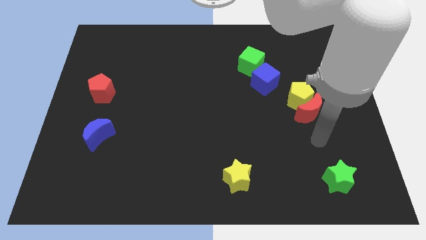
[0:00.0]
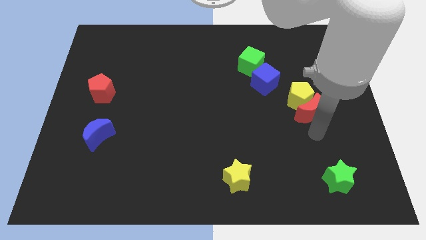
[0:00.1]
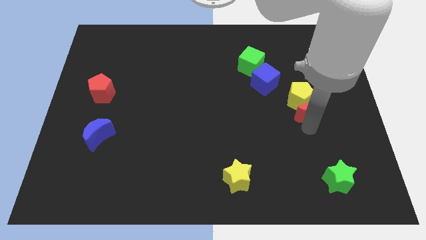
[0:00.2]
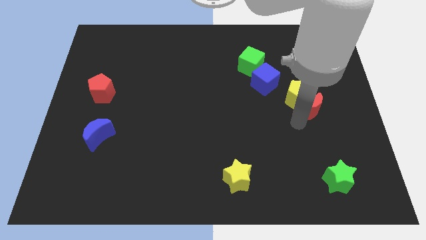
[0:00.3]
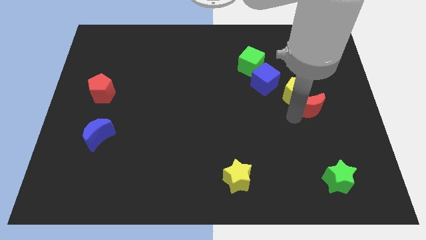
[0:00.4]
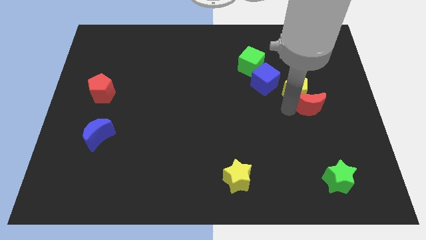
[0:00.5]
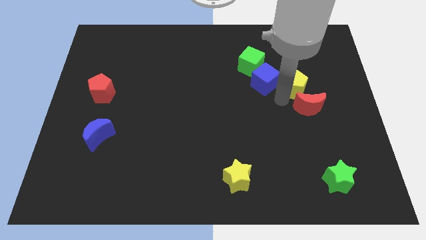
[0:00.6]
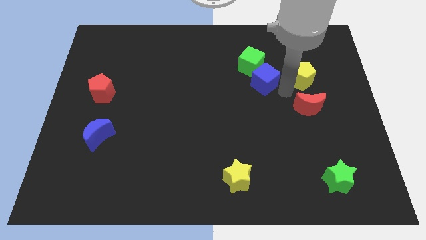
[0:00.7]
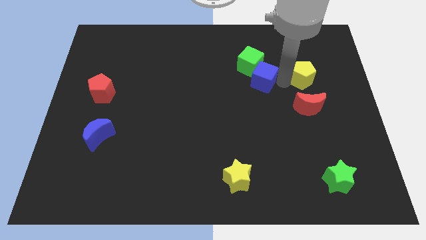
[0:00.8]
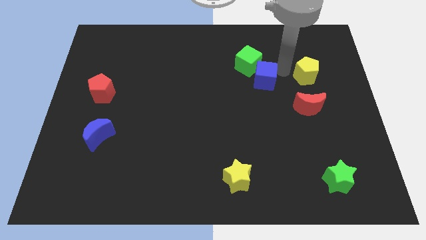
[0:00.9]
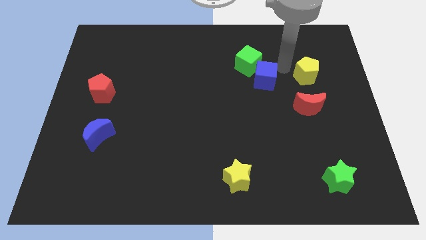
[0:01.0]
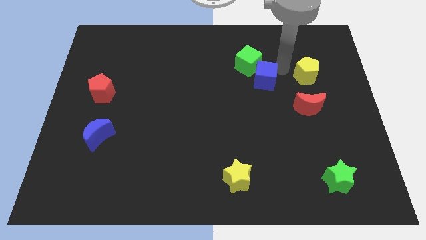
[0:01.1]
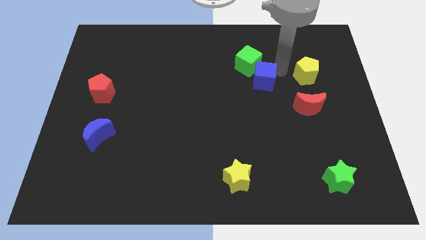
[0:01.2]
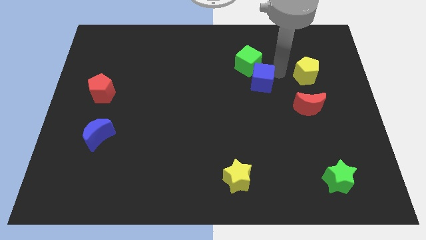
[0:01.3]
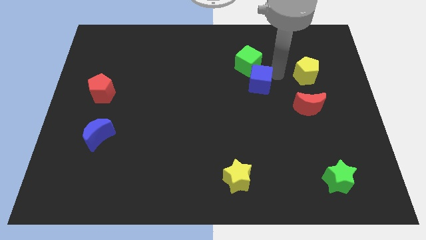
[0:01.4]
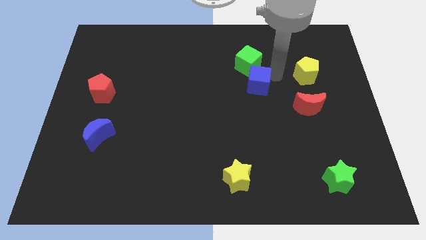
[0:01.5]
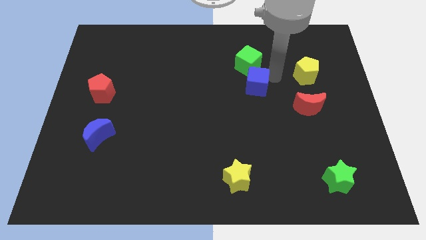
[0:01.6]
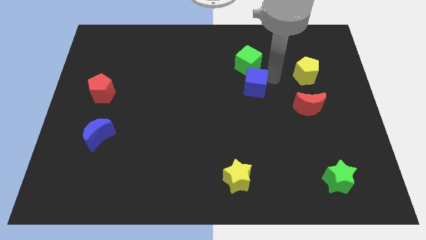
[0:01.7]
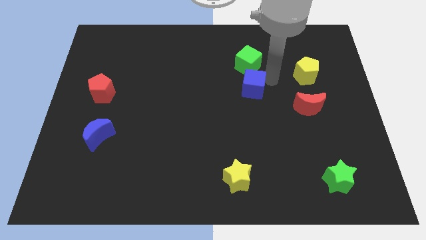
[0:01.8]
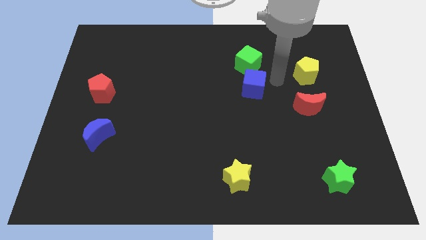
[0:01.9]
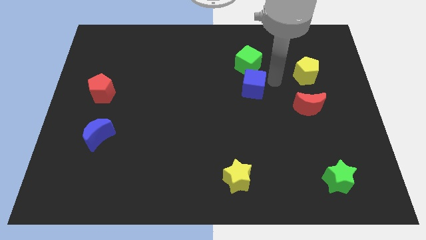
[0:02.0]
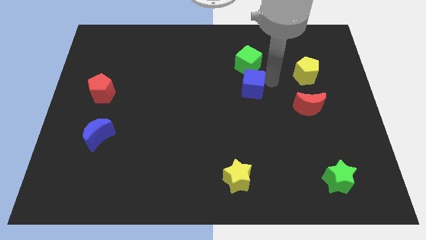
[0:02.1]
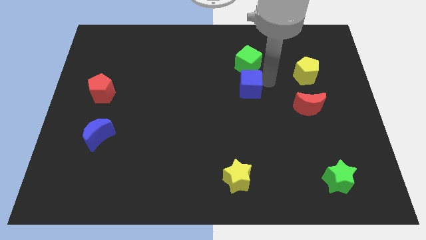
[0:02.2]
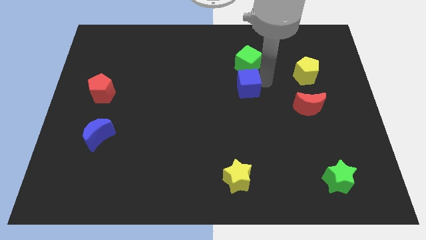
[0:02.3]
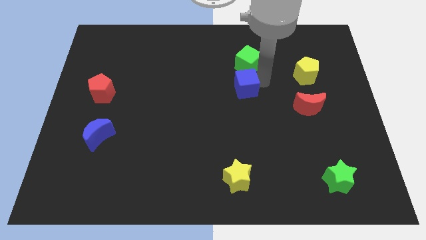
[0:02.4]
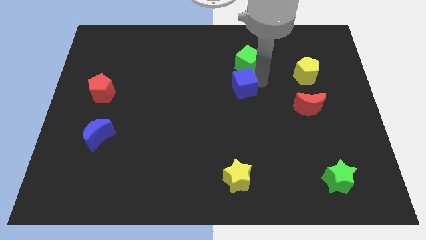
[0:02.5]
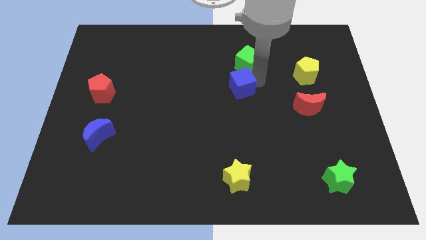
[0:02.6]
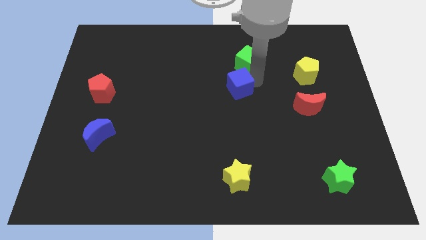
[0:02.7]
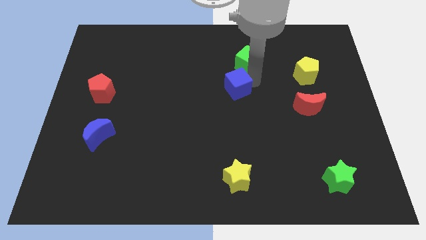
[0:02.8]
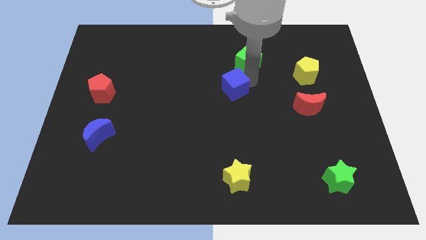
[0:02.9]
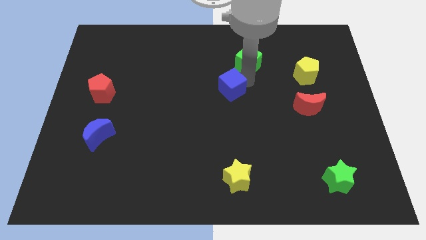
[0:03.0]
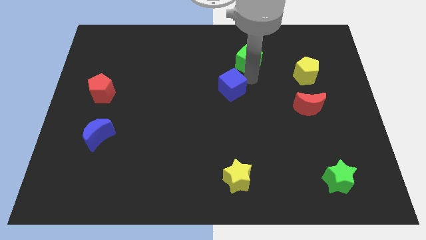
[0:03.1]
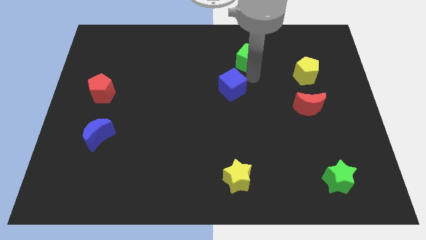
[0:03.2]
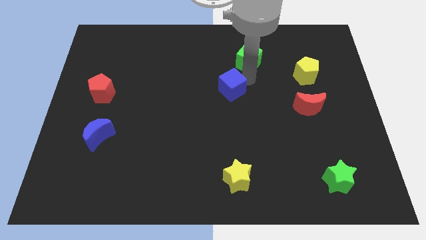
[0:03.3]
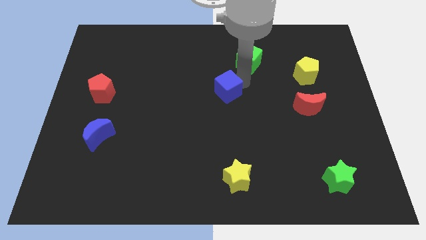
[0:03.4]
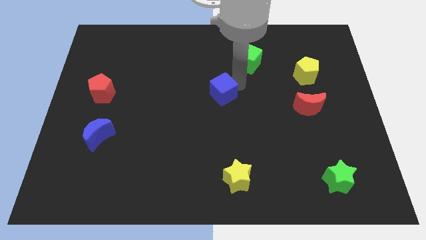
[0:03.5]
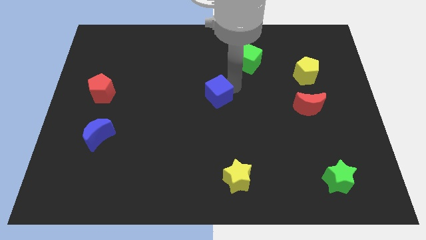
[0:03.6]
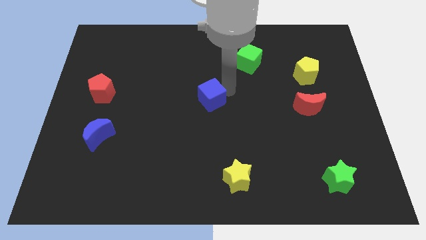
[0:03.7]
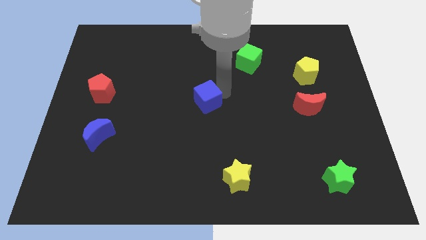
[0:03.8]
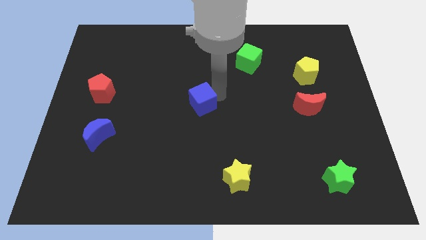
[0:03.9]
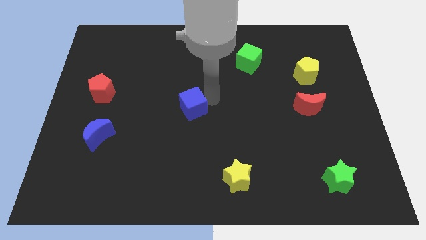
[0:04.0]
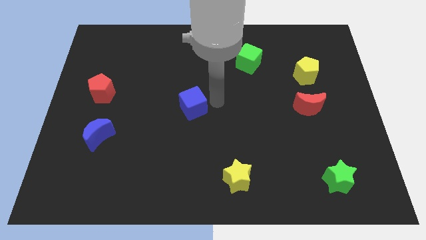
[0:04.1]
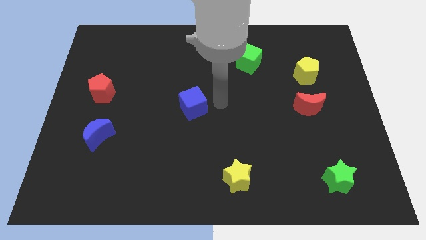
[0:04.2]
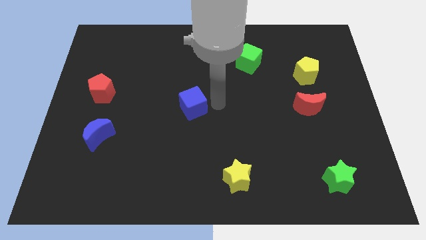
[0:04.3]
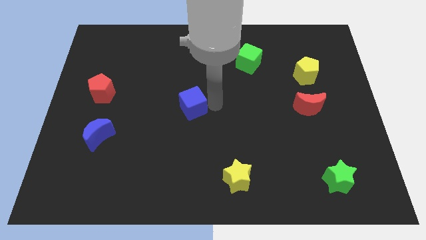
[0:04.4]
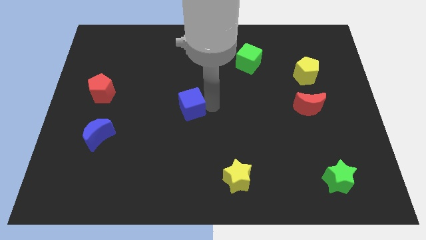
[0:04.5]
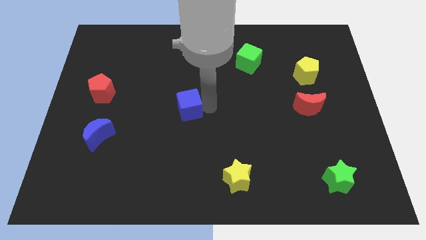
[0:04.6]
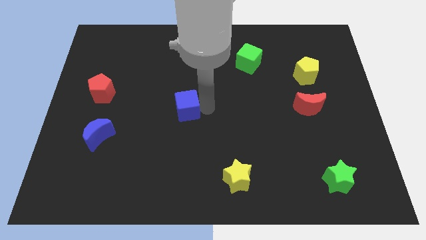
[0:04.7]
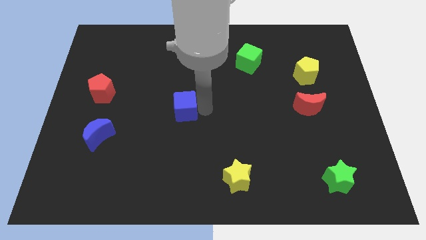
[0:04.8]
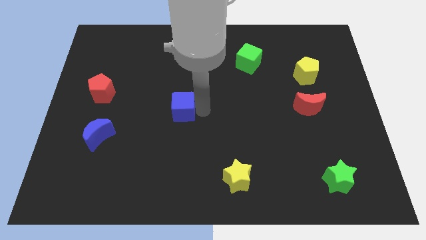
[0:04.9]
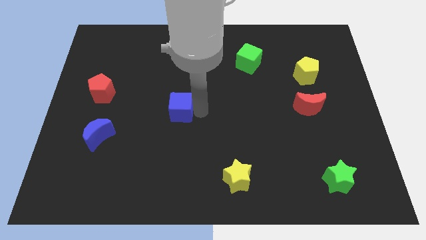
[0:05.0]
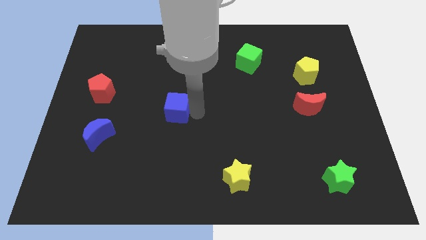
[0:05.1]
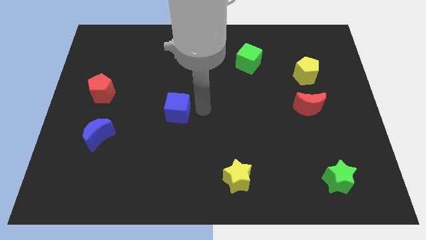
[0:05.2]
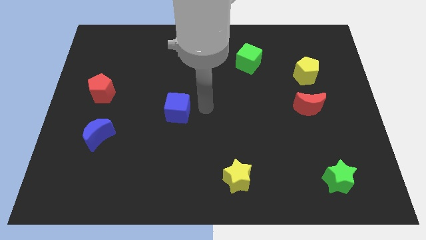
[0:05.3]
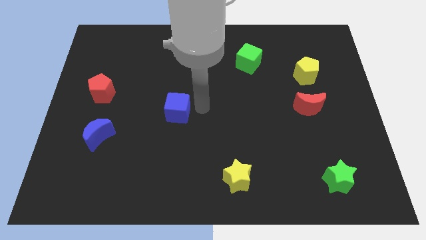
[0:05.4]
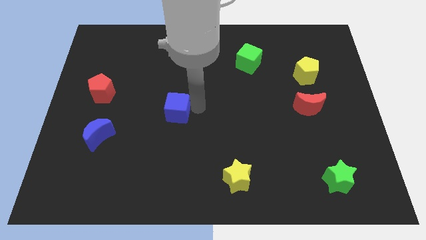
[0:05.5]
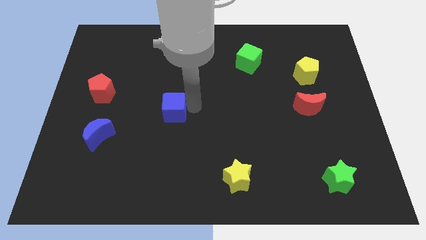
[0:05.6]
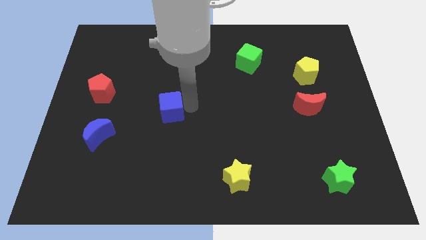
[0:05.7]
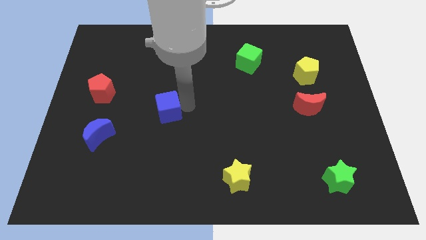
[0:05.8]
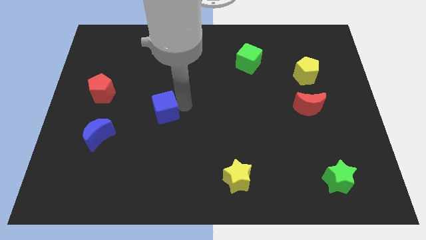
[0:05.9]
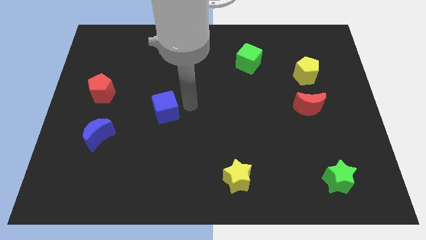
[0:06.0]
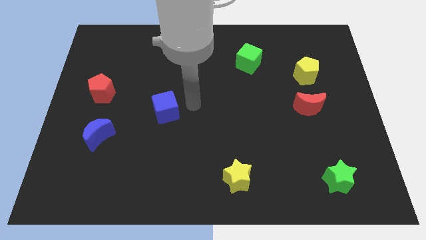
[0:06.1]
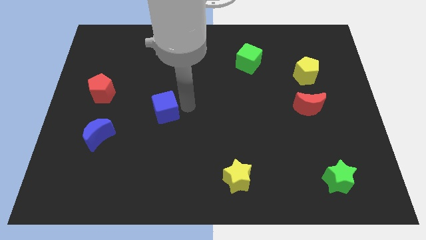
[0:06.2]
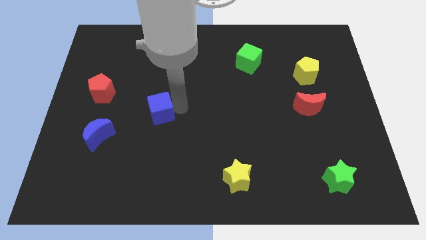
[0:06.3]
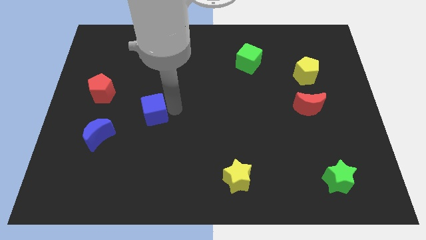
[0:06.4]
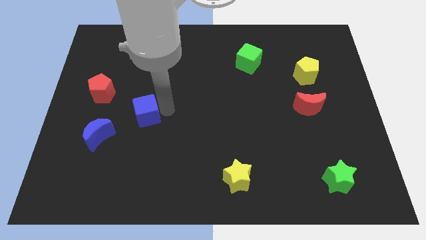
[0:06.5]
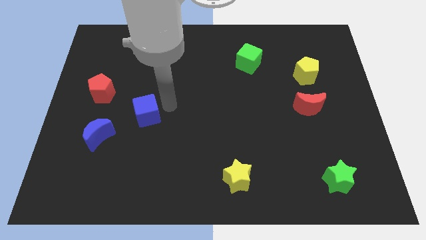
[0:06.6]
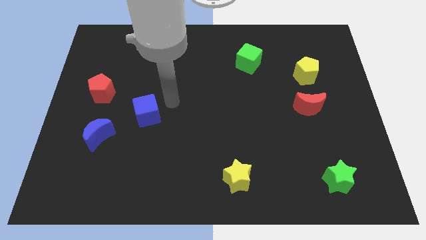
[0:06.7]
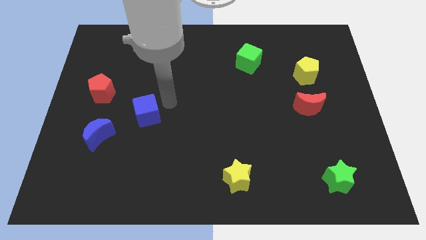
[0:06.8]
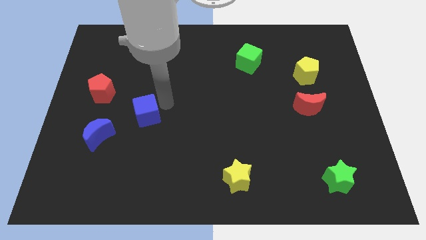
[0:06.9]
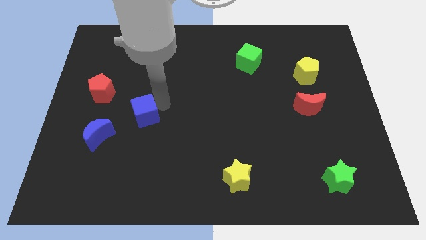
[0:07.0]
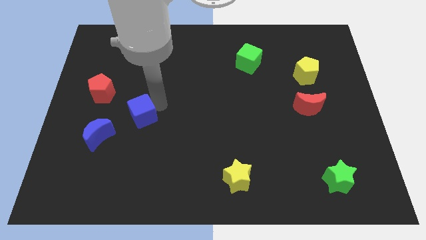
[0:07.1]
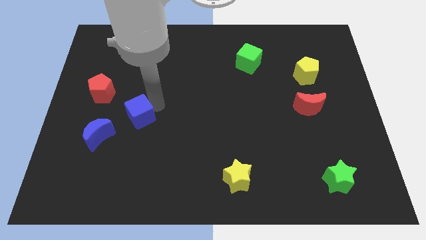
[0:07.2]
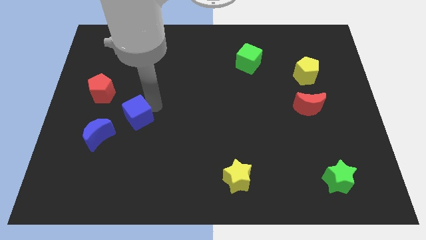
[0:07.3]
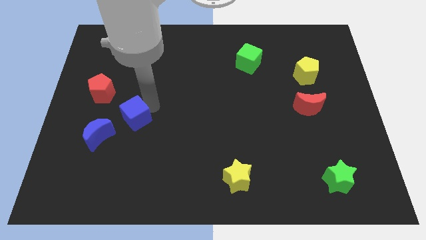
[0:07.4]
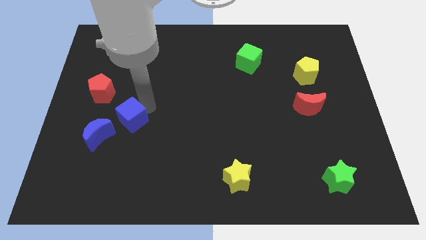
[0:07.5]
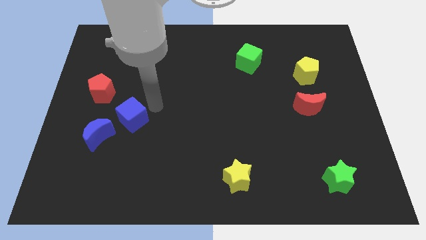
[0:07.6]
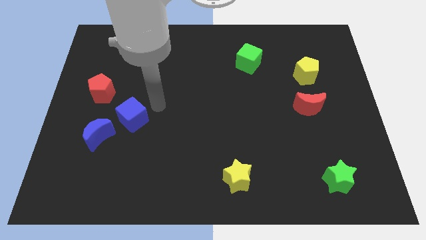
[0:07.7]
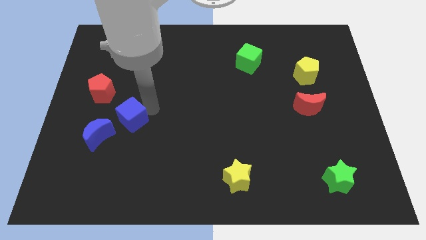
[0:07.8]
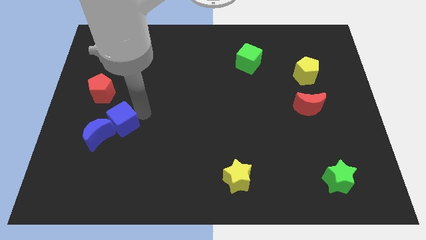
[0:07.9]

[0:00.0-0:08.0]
slide the blue cube next to the blue moon
